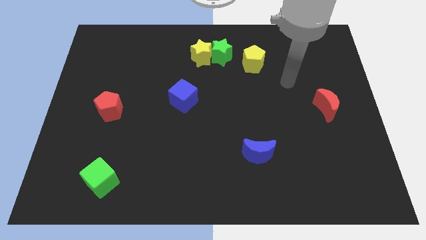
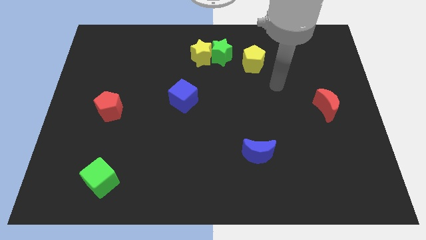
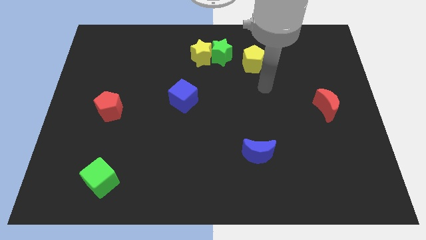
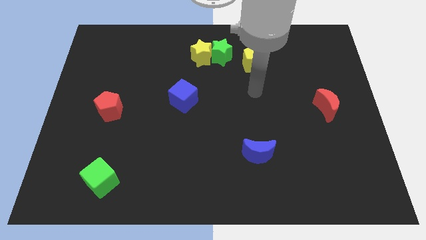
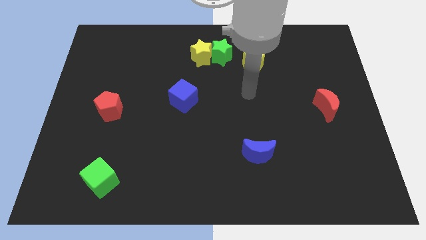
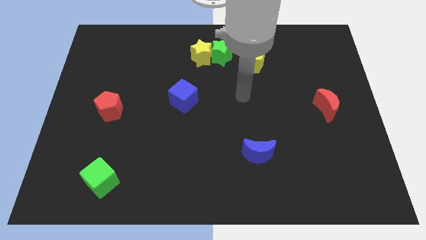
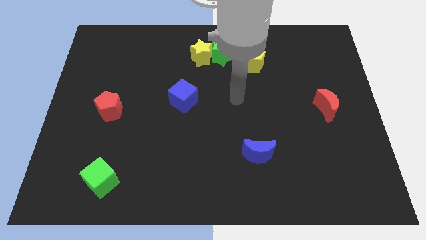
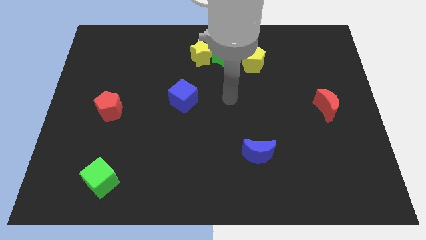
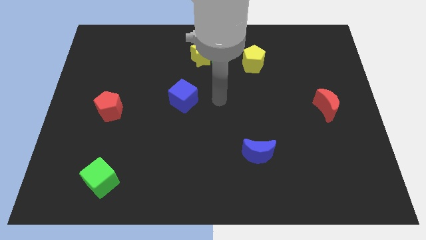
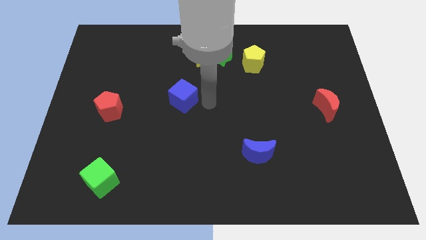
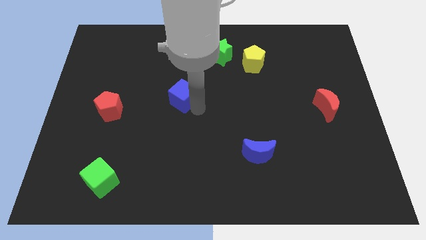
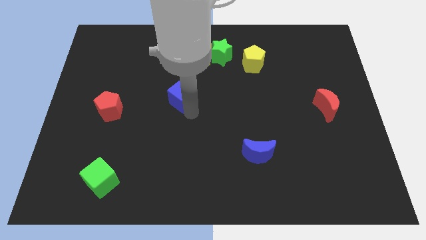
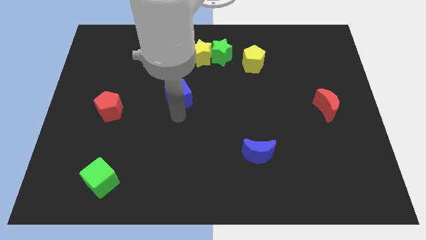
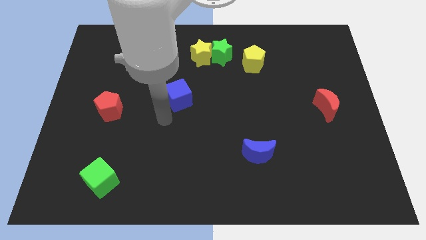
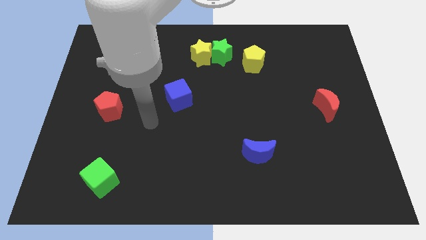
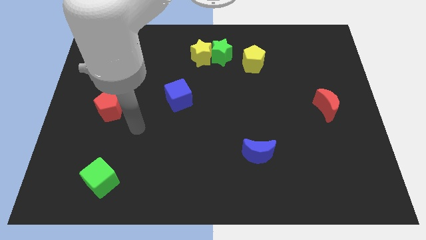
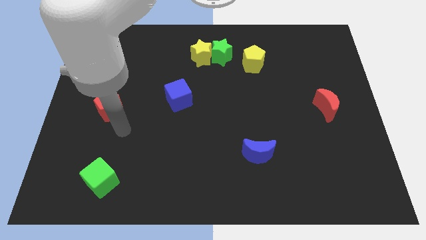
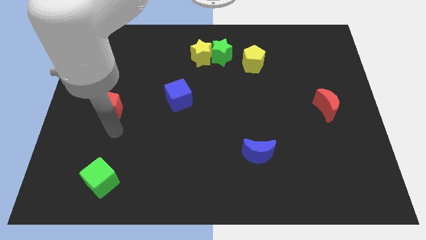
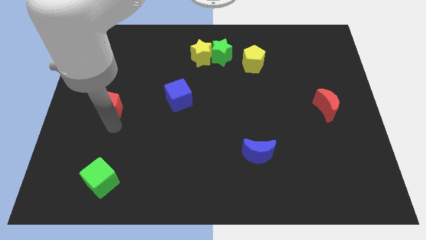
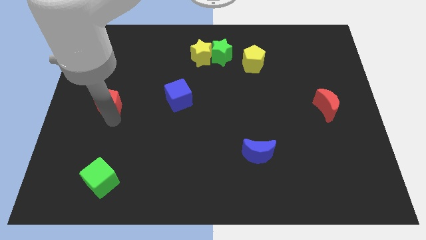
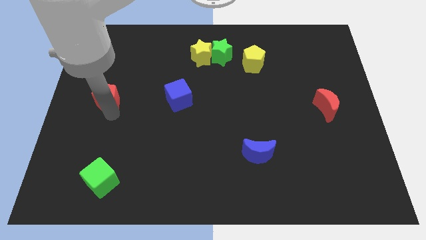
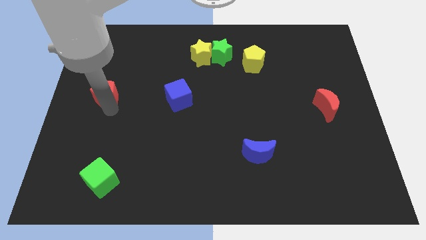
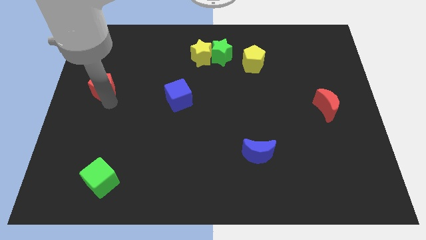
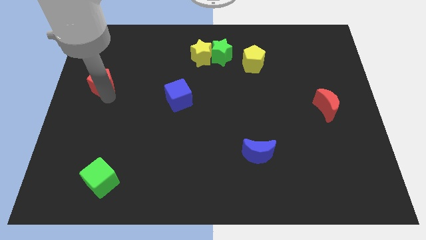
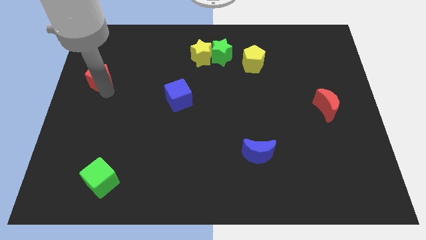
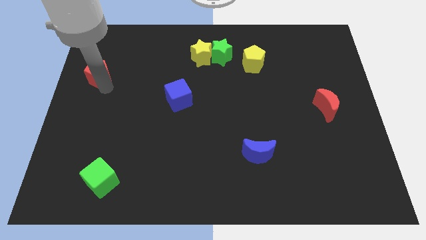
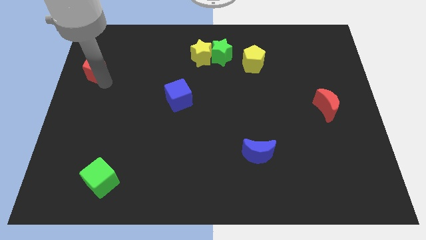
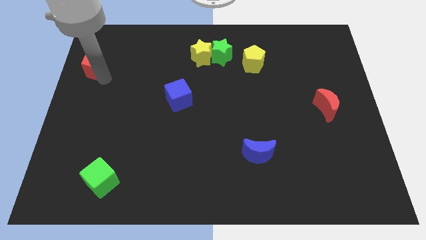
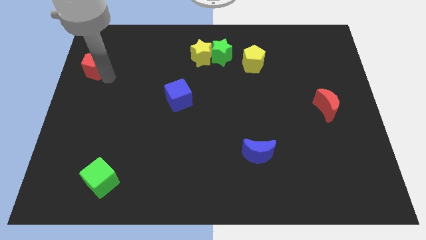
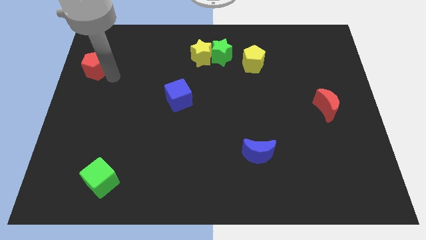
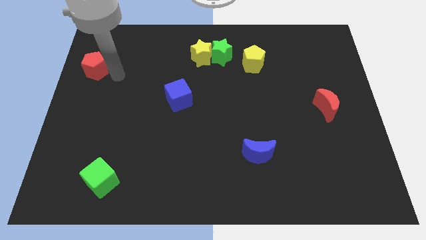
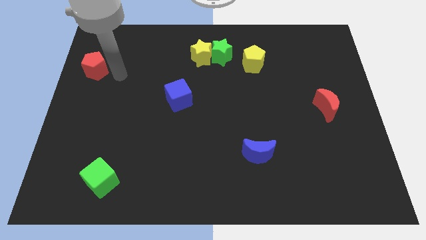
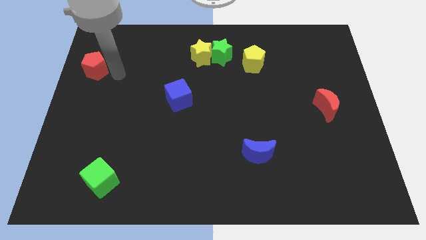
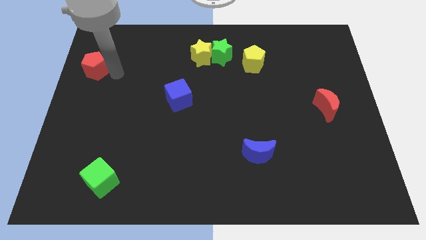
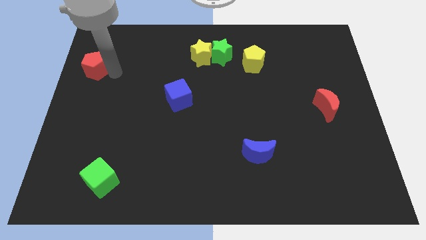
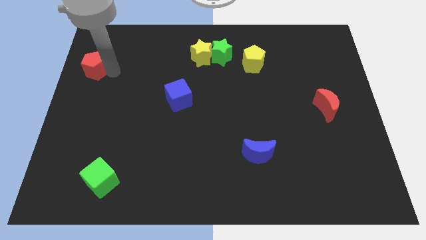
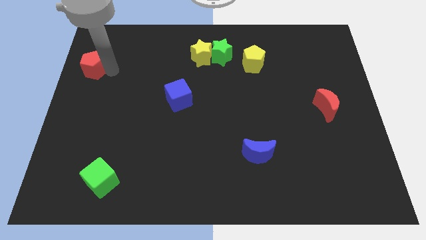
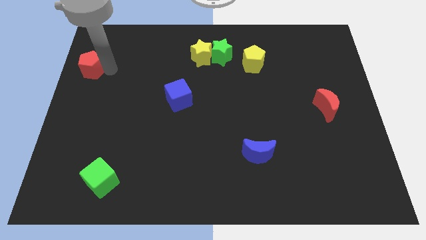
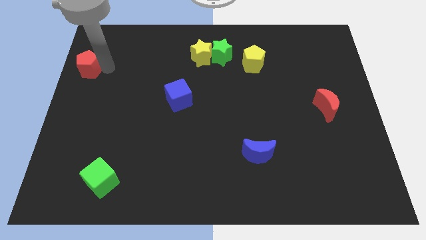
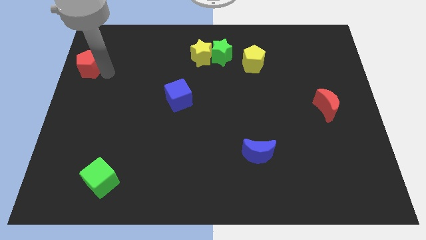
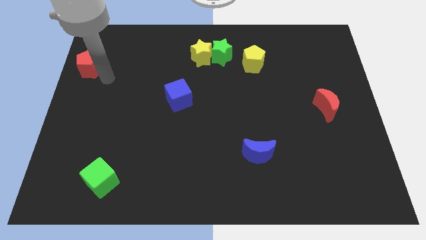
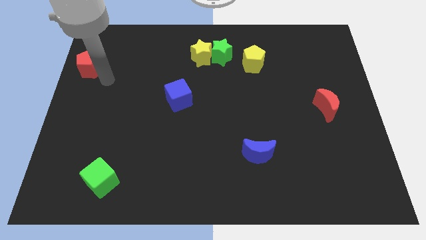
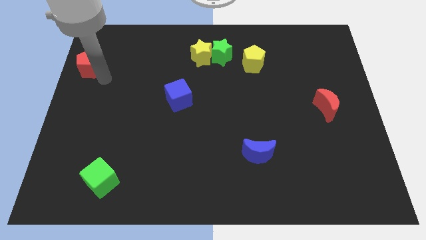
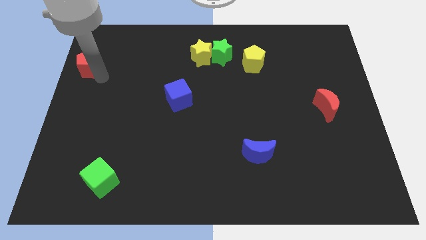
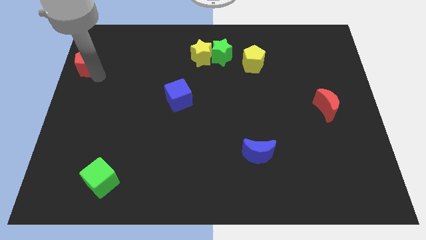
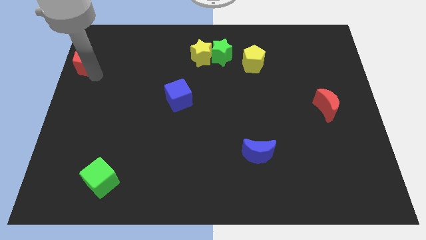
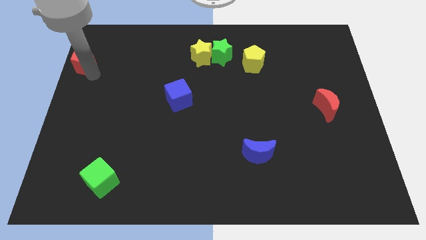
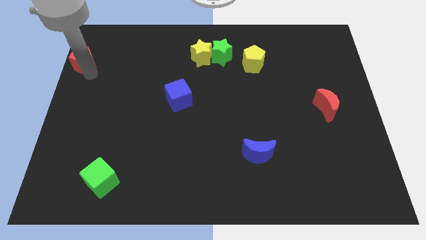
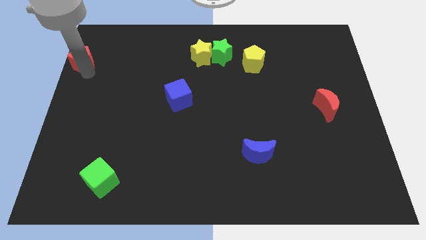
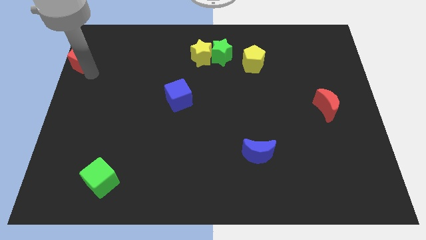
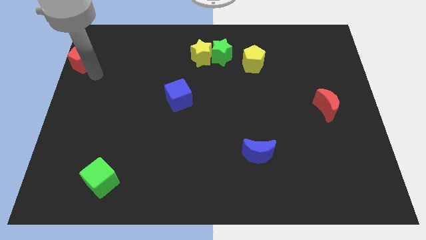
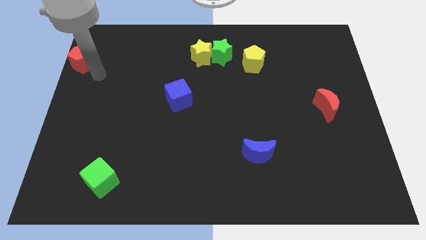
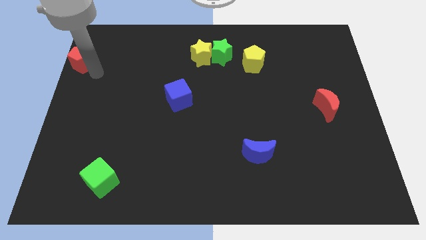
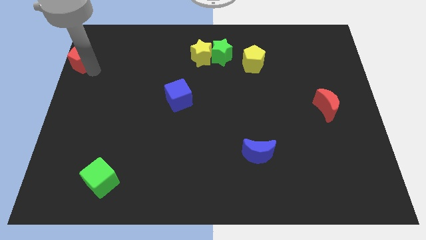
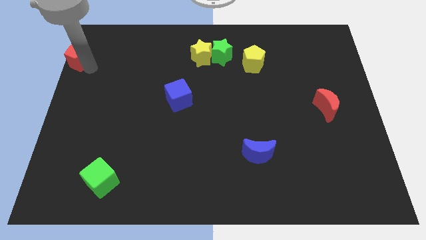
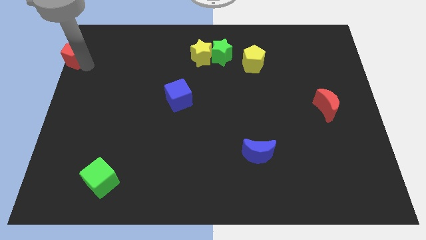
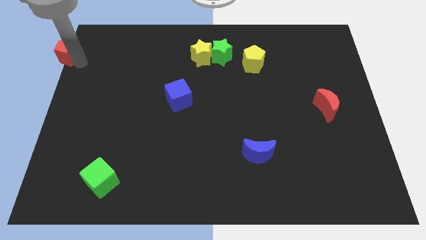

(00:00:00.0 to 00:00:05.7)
move the red pentagon to the top left of the board

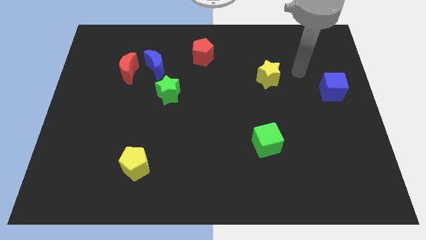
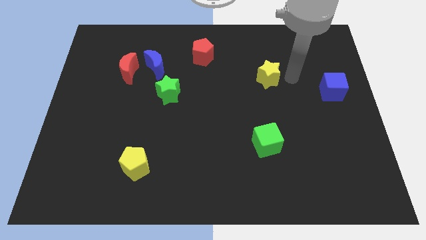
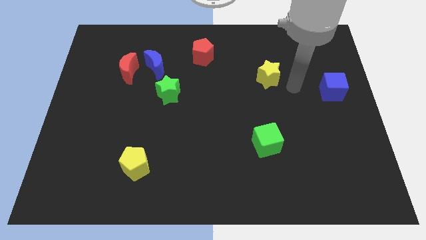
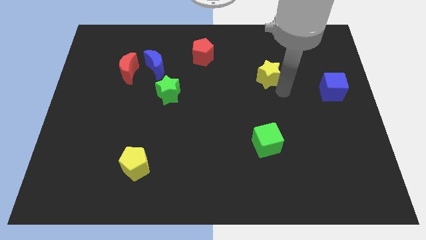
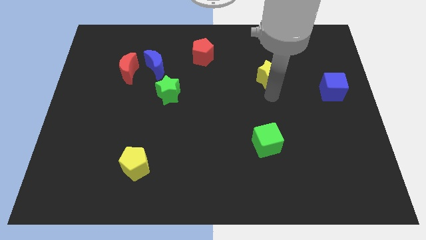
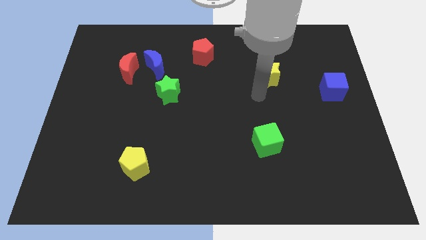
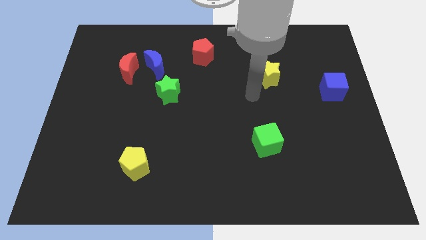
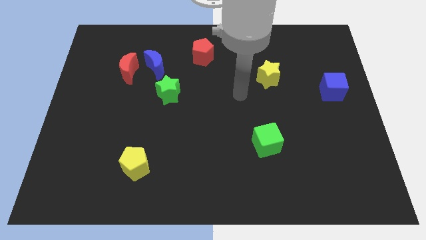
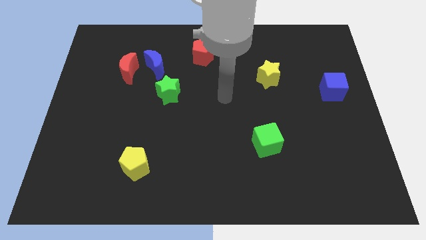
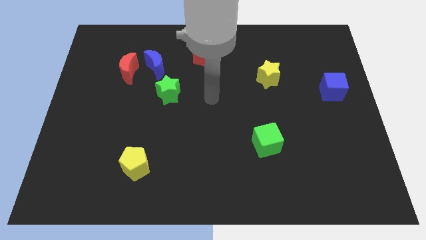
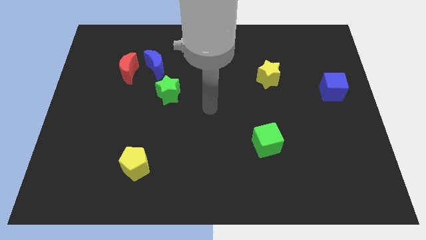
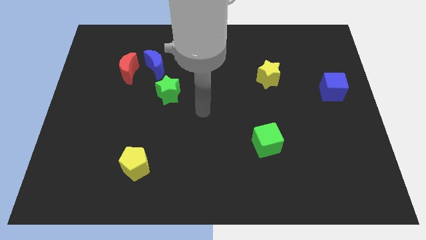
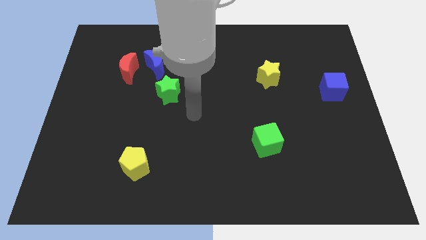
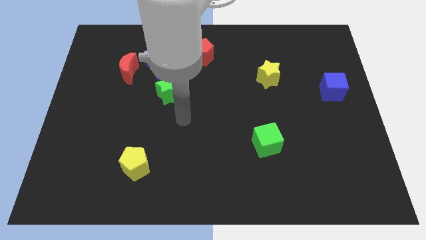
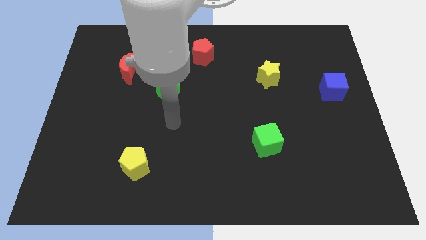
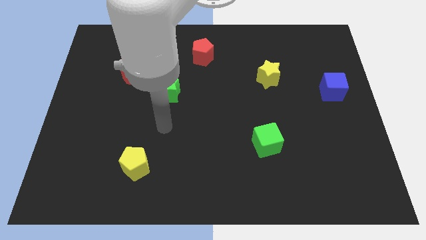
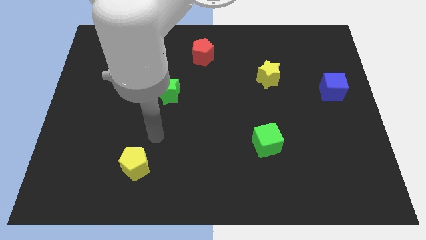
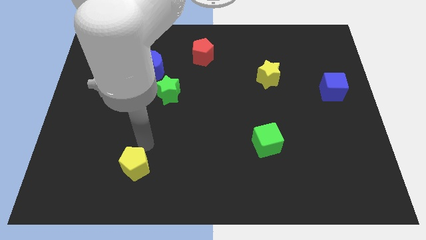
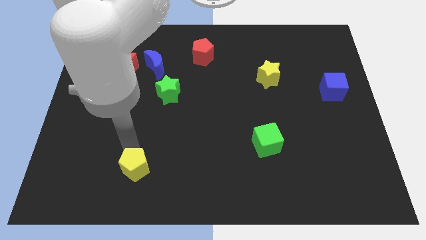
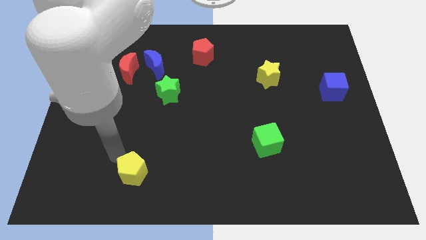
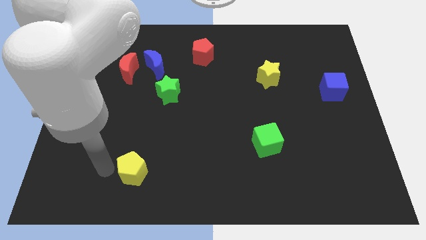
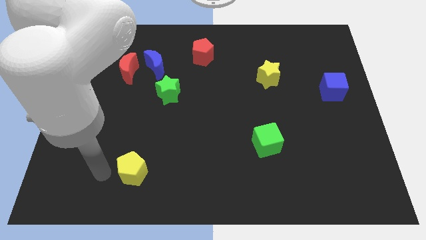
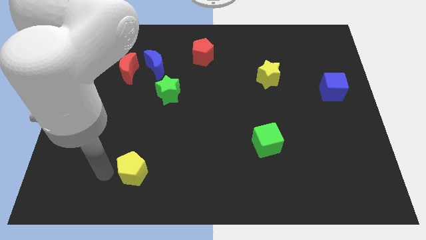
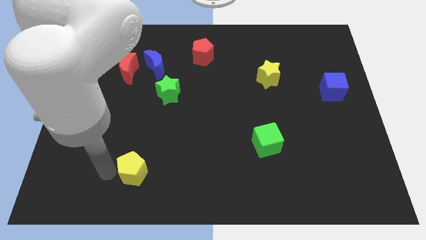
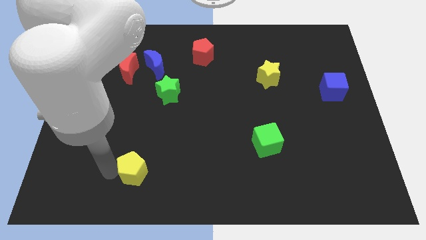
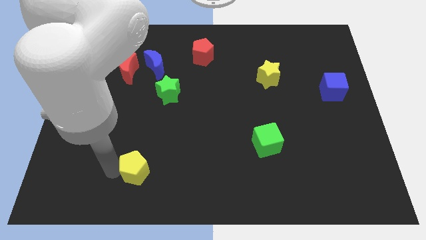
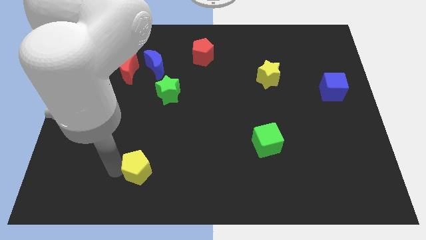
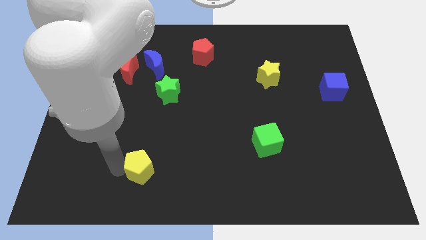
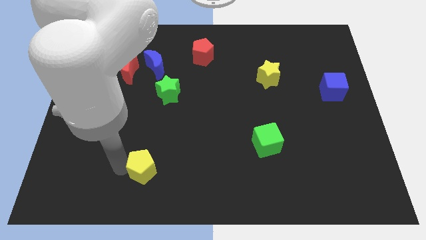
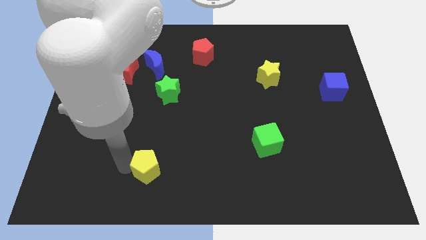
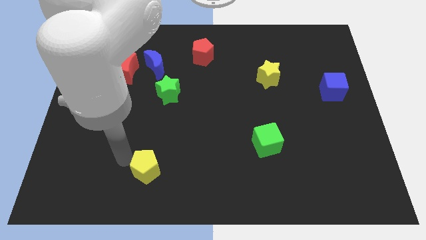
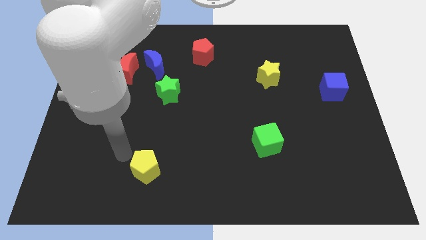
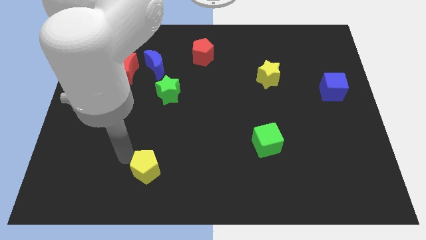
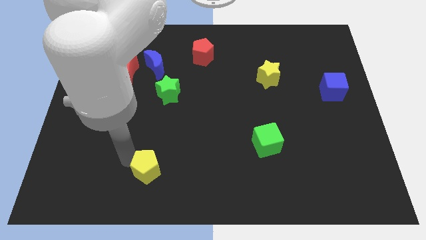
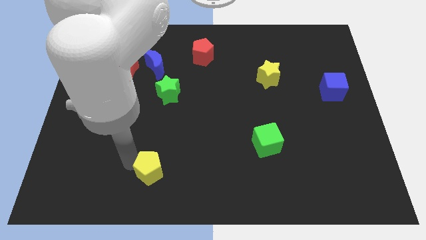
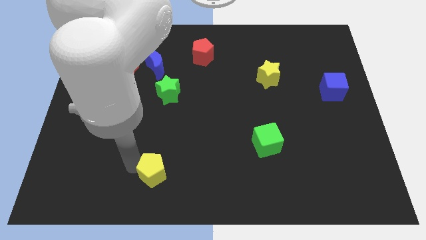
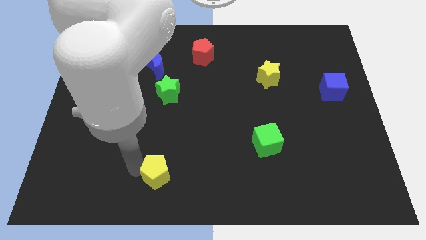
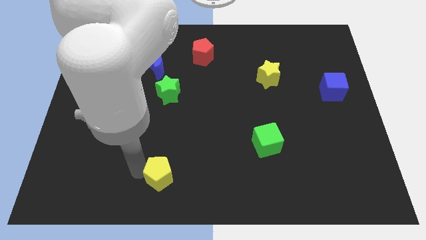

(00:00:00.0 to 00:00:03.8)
move the yellow pentagon to the bottom side
